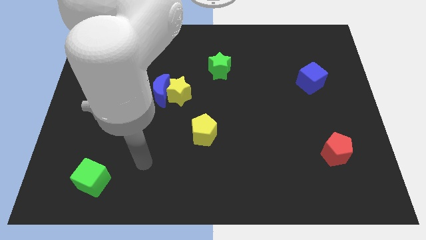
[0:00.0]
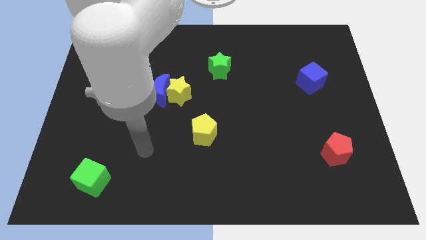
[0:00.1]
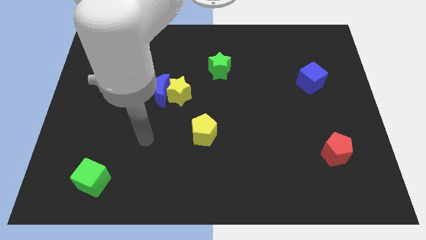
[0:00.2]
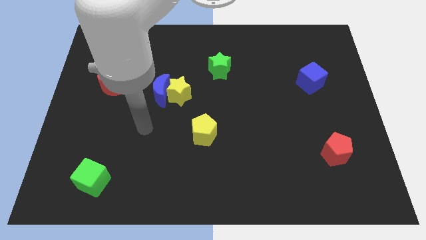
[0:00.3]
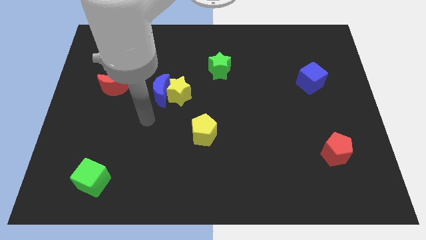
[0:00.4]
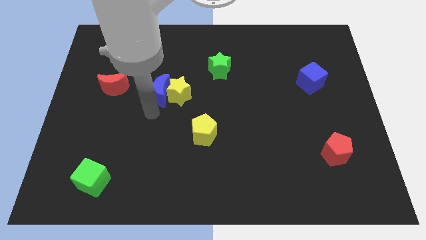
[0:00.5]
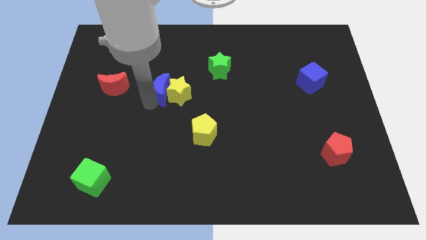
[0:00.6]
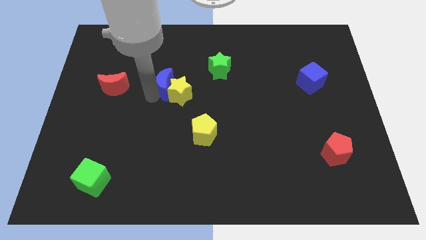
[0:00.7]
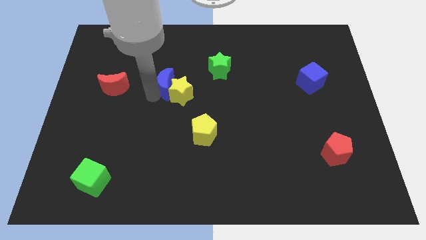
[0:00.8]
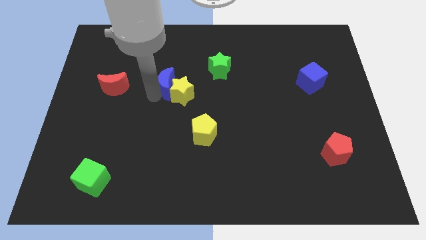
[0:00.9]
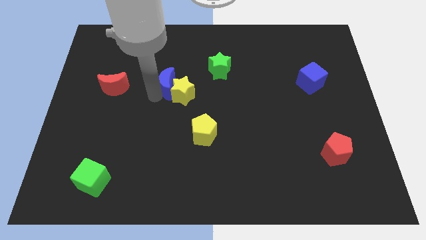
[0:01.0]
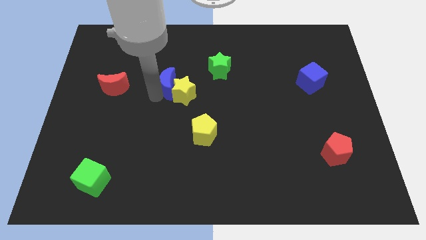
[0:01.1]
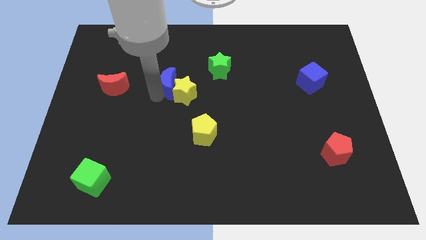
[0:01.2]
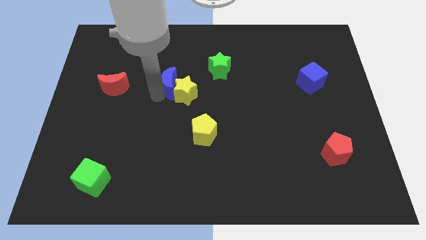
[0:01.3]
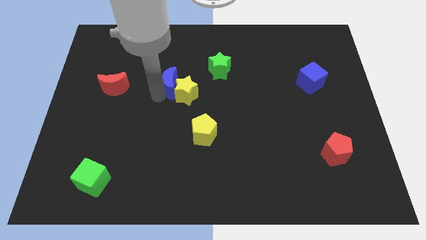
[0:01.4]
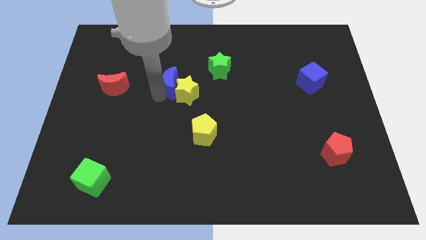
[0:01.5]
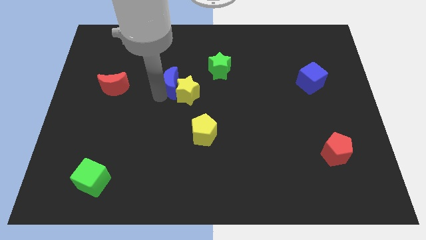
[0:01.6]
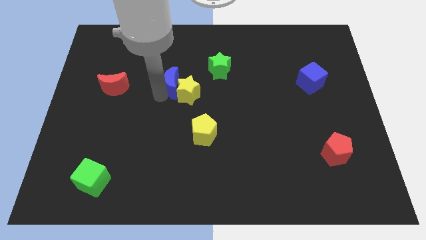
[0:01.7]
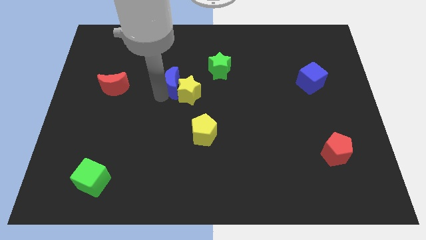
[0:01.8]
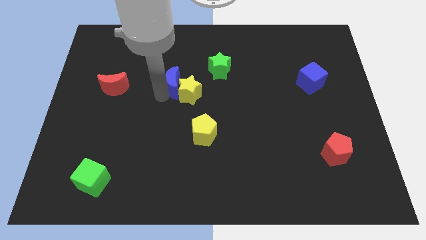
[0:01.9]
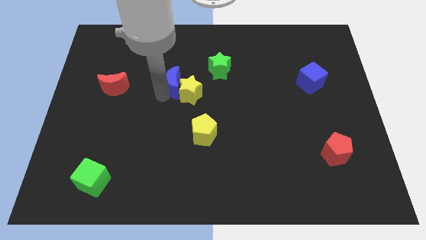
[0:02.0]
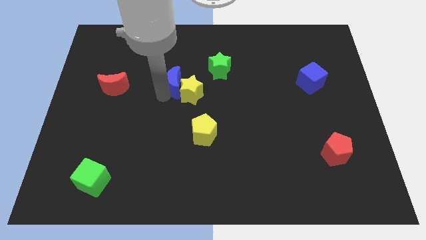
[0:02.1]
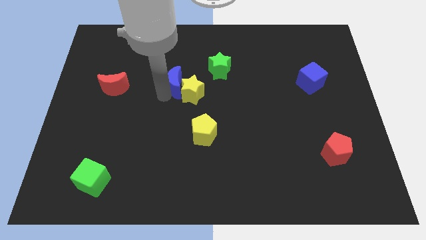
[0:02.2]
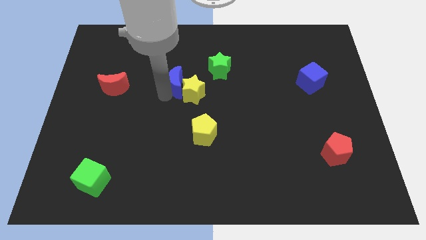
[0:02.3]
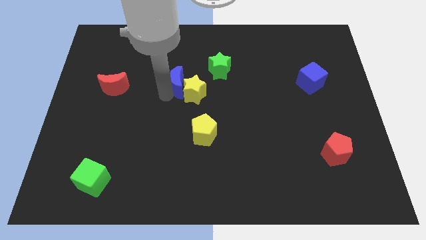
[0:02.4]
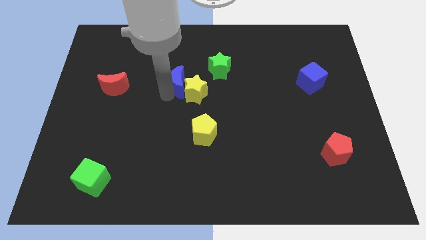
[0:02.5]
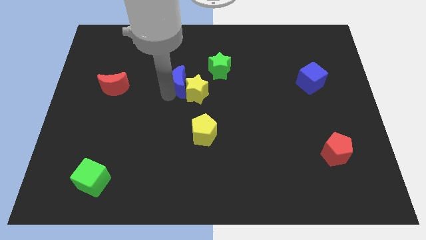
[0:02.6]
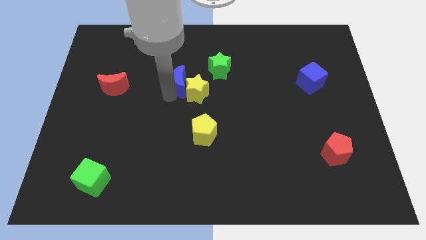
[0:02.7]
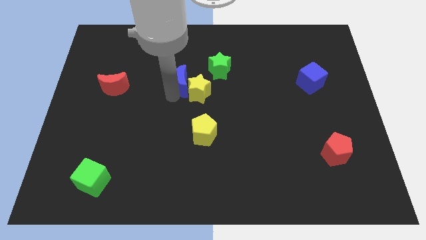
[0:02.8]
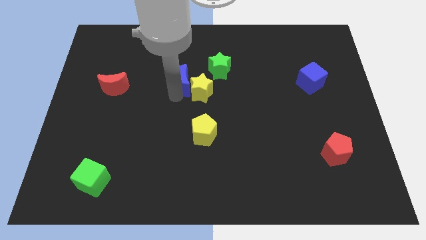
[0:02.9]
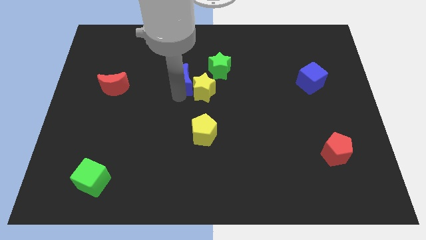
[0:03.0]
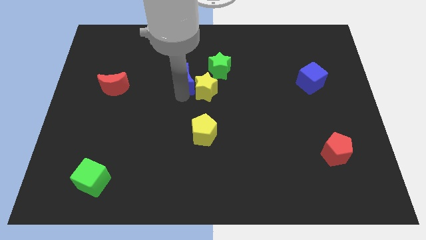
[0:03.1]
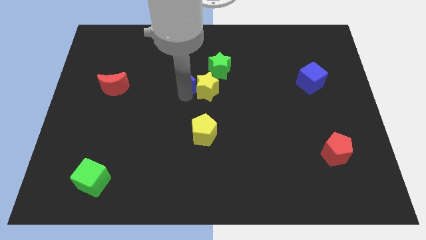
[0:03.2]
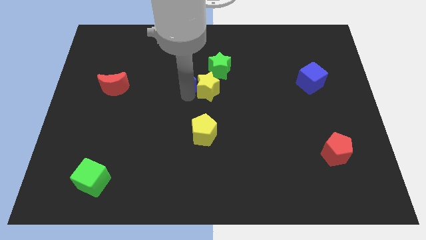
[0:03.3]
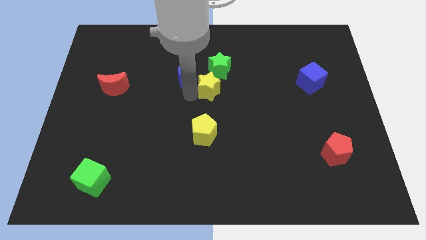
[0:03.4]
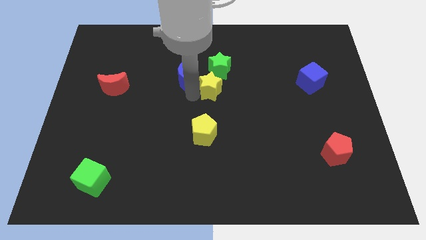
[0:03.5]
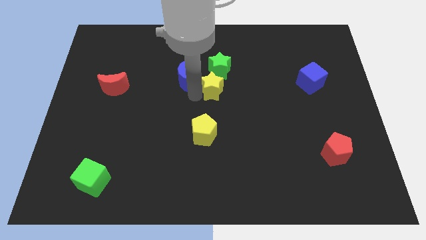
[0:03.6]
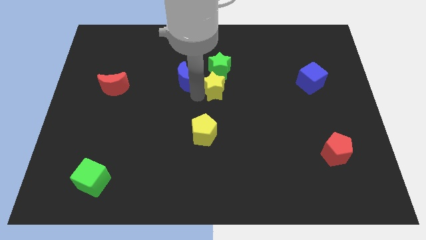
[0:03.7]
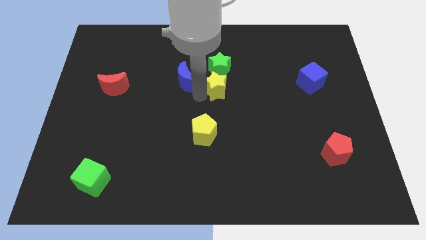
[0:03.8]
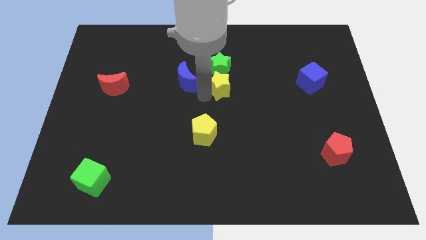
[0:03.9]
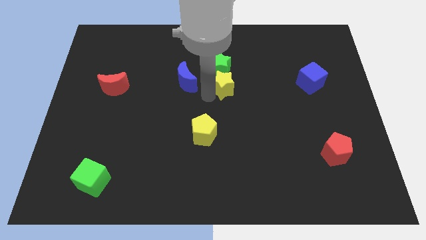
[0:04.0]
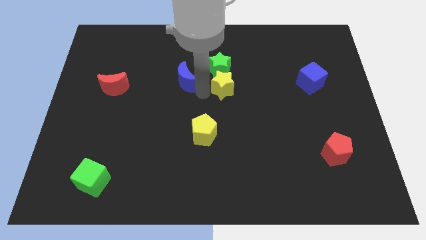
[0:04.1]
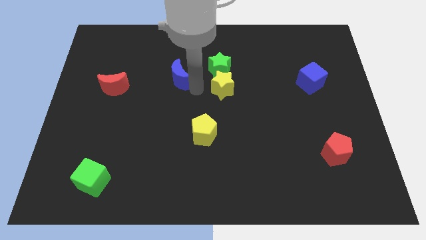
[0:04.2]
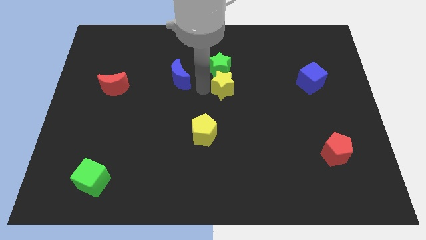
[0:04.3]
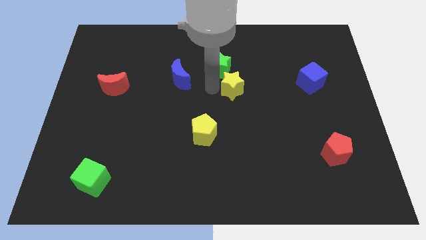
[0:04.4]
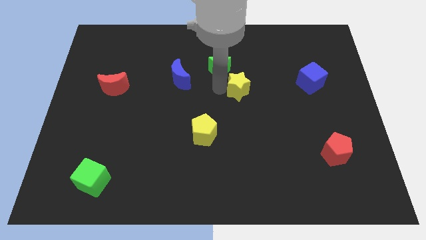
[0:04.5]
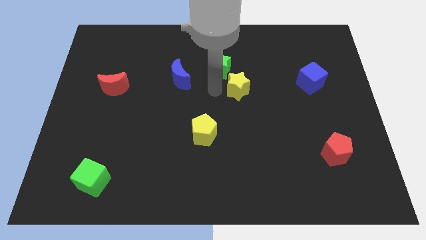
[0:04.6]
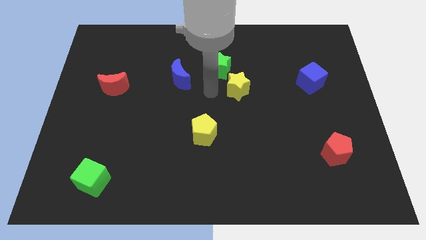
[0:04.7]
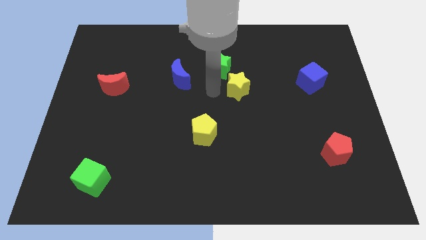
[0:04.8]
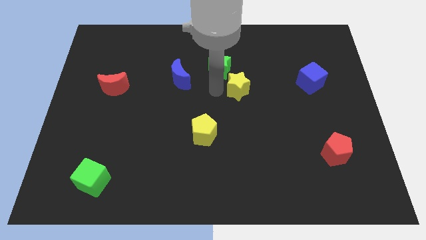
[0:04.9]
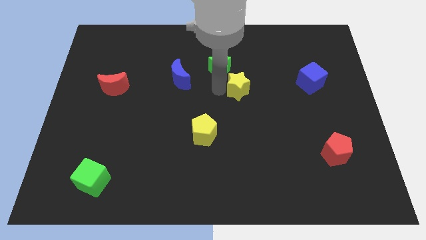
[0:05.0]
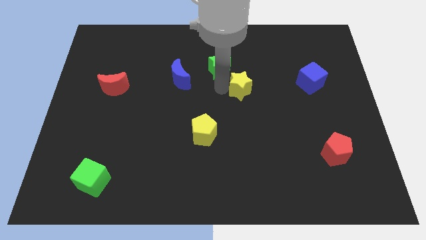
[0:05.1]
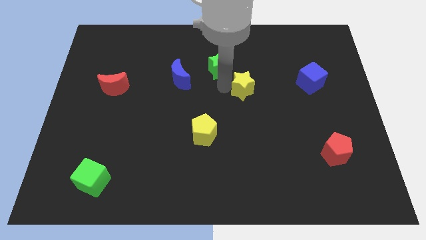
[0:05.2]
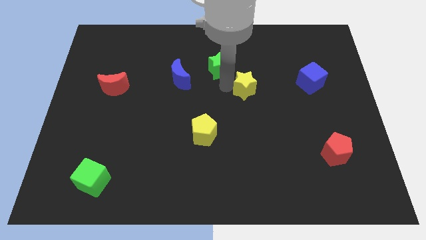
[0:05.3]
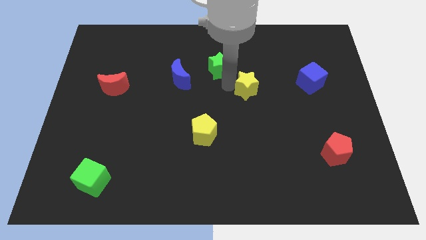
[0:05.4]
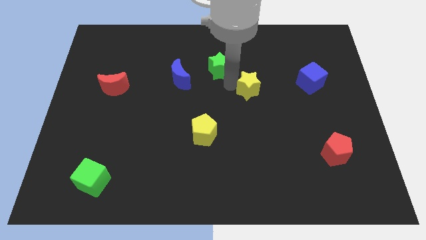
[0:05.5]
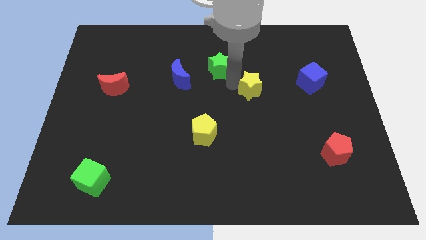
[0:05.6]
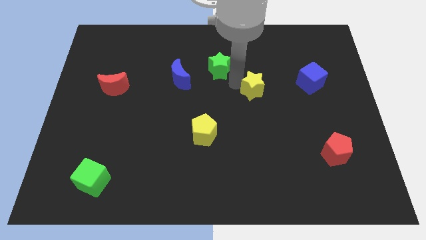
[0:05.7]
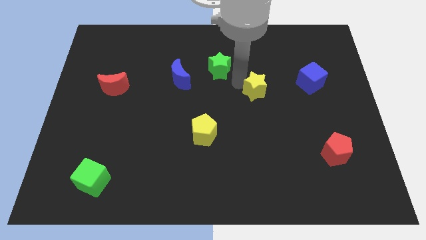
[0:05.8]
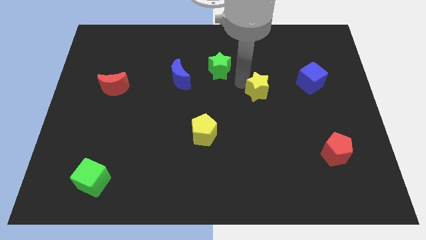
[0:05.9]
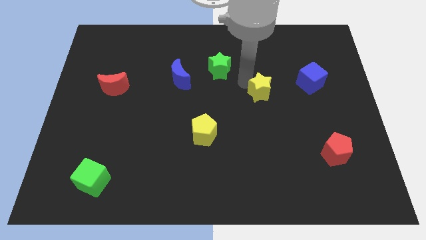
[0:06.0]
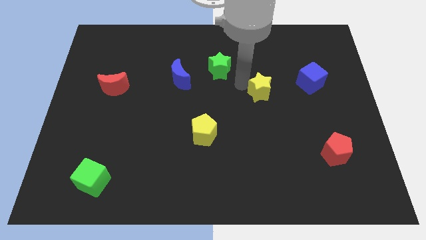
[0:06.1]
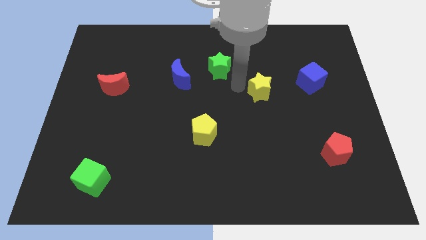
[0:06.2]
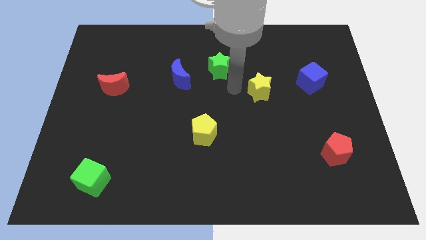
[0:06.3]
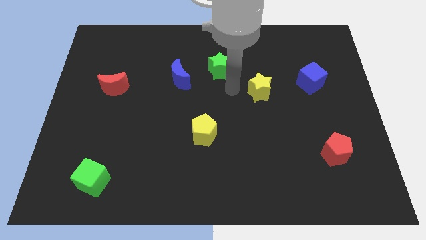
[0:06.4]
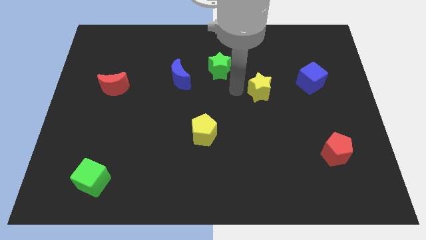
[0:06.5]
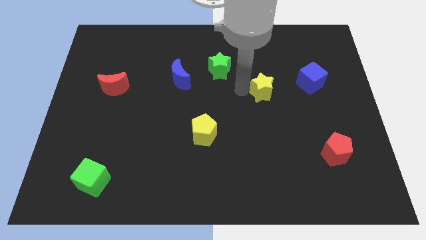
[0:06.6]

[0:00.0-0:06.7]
move the yellow star right

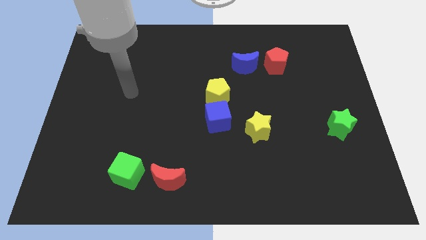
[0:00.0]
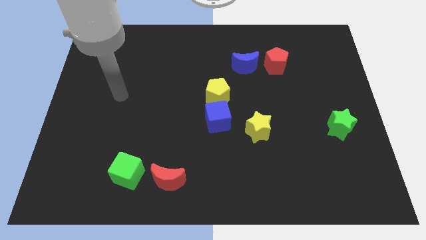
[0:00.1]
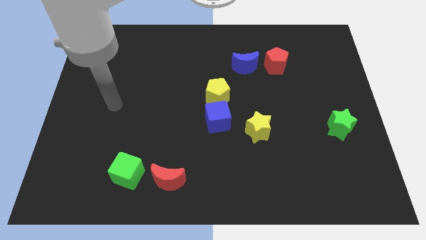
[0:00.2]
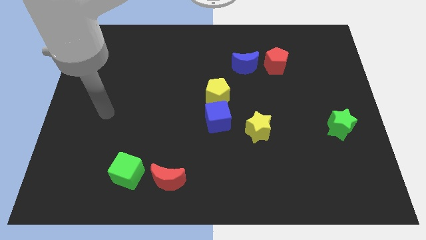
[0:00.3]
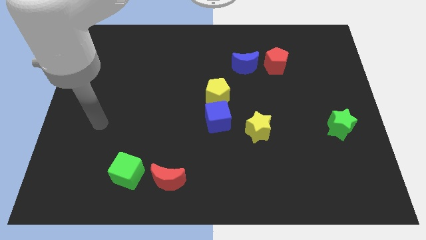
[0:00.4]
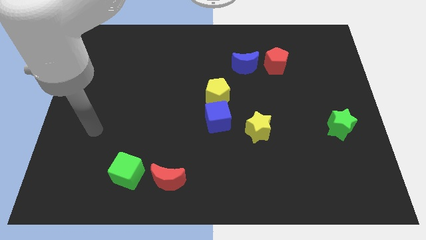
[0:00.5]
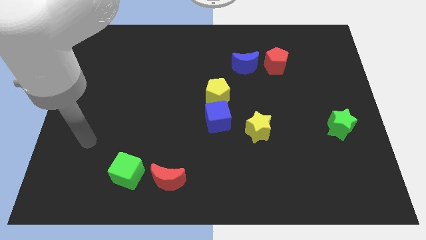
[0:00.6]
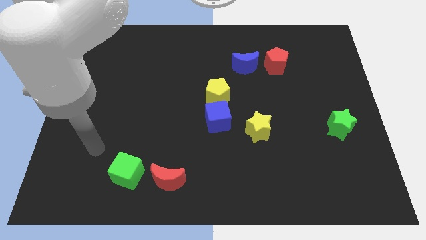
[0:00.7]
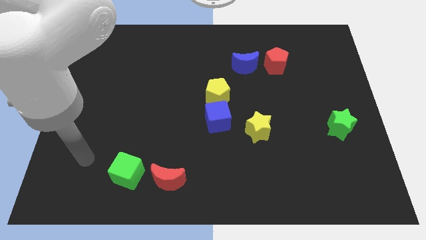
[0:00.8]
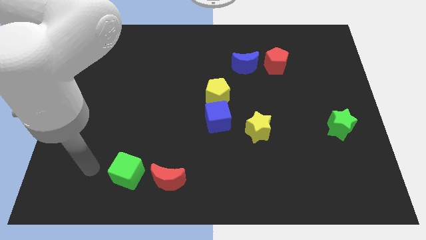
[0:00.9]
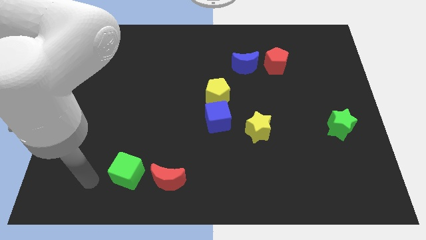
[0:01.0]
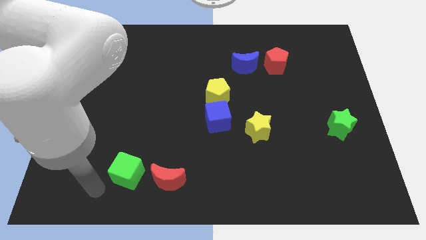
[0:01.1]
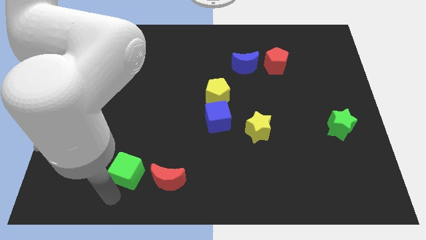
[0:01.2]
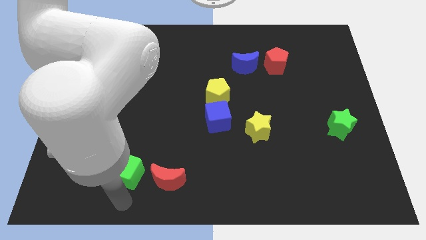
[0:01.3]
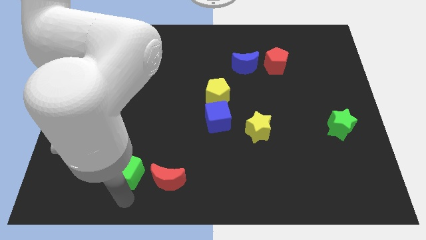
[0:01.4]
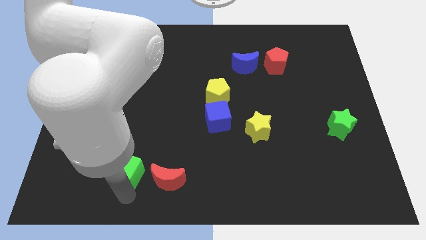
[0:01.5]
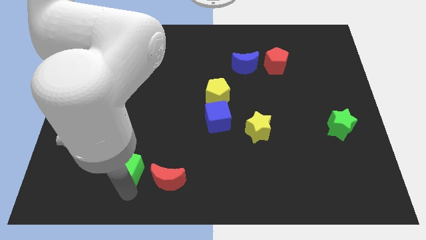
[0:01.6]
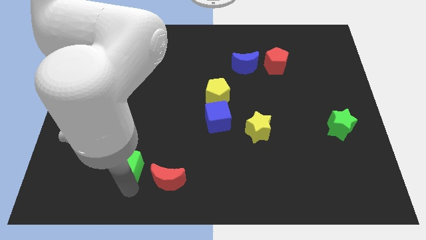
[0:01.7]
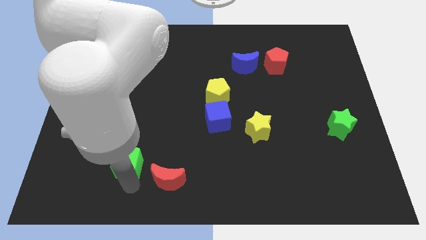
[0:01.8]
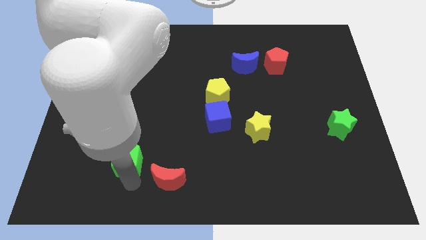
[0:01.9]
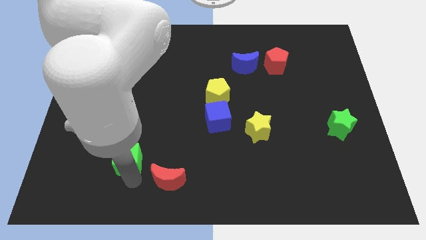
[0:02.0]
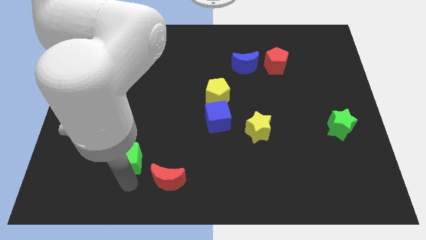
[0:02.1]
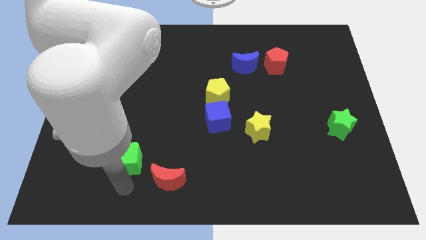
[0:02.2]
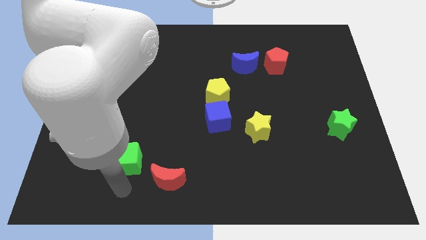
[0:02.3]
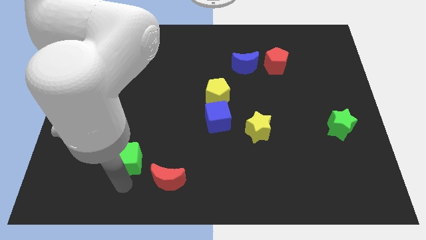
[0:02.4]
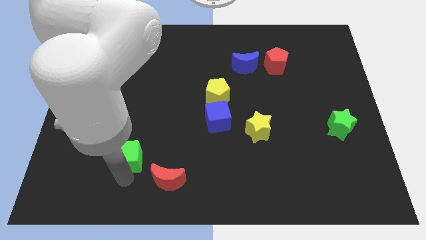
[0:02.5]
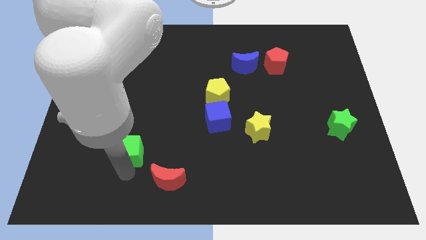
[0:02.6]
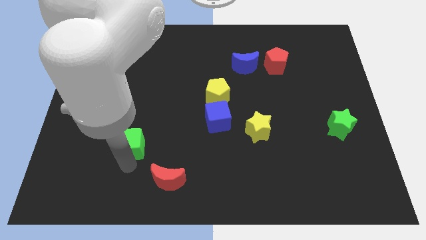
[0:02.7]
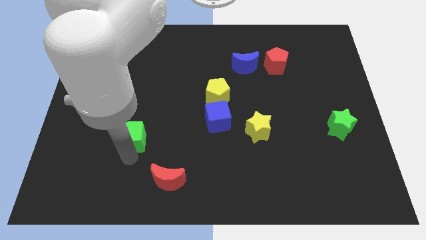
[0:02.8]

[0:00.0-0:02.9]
slightly push the green cube up
